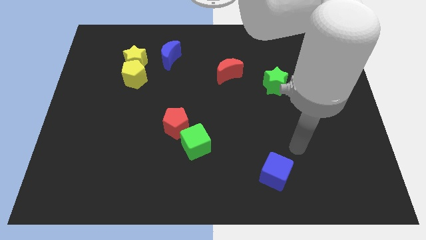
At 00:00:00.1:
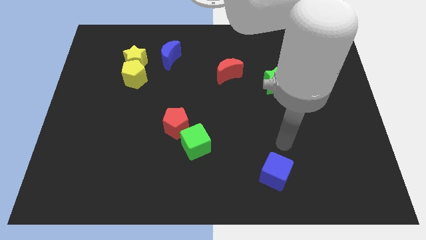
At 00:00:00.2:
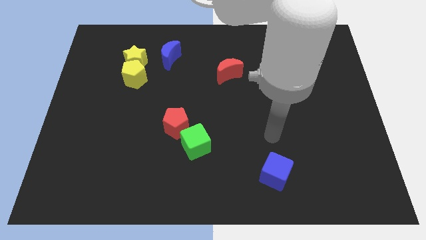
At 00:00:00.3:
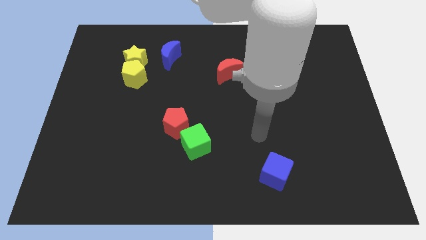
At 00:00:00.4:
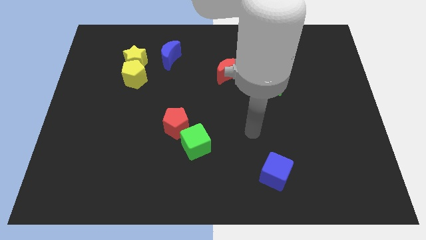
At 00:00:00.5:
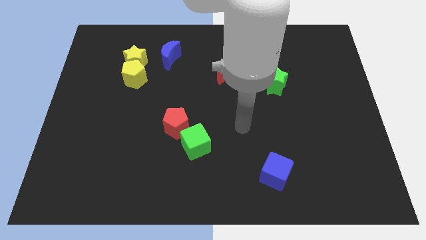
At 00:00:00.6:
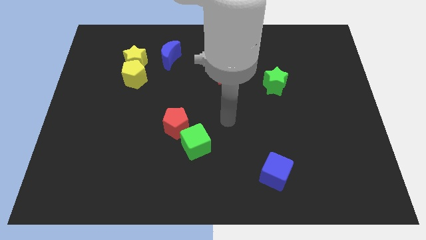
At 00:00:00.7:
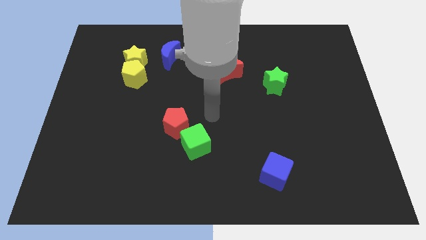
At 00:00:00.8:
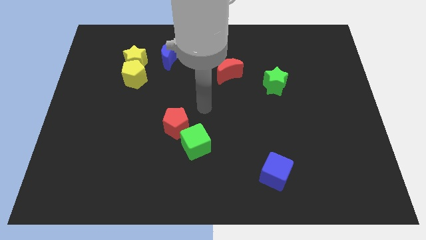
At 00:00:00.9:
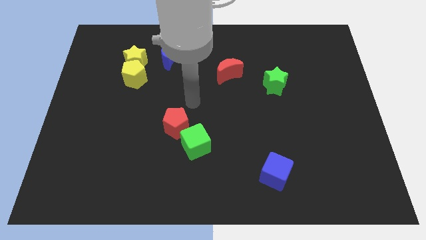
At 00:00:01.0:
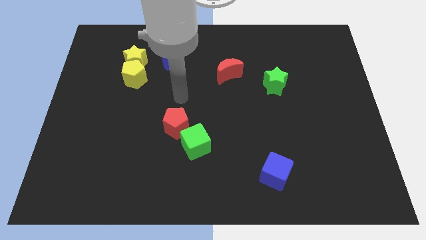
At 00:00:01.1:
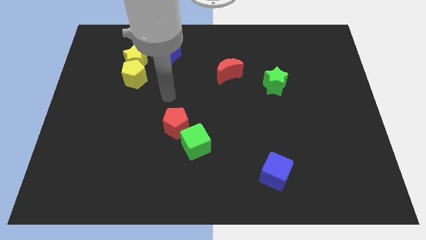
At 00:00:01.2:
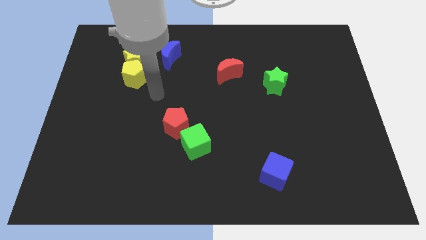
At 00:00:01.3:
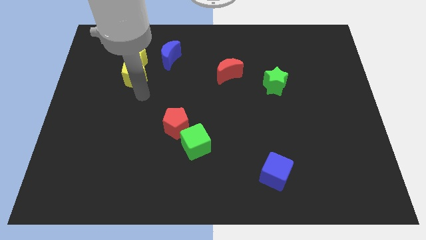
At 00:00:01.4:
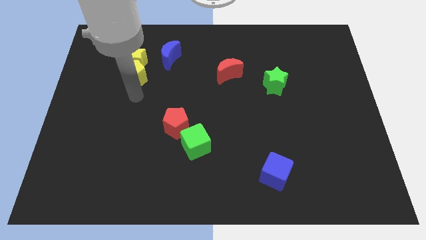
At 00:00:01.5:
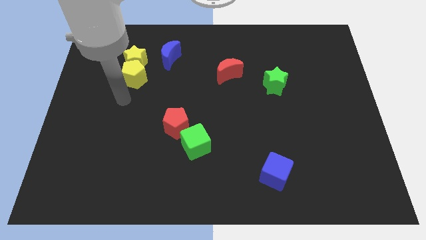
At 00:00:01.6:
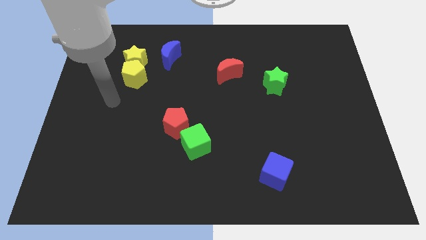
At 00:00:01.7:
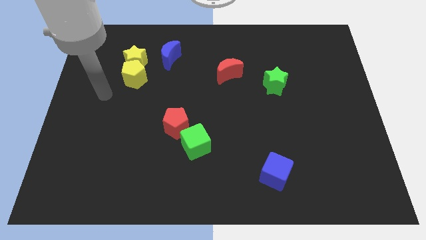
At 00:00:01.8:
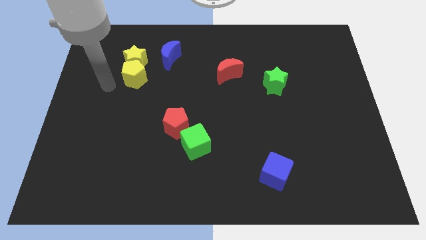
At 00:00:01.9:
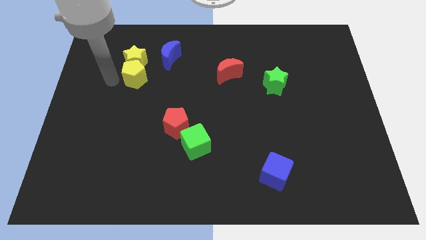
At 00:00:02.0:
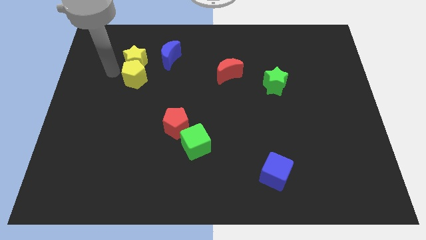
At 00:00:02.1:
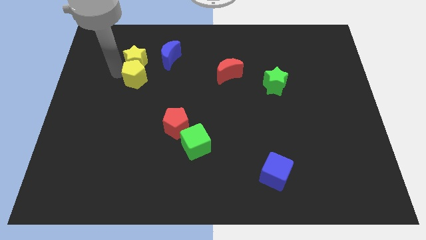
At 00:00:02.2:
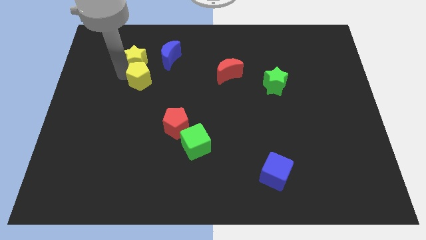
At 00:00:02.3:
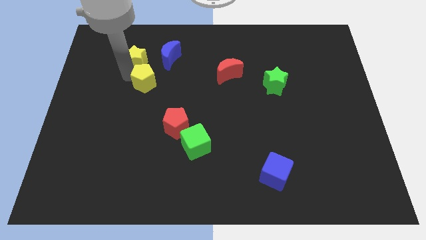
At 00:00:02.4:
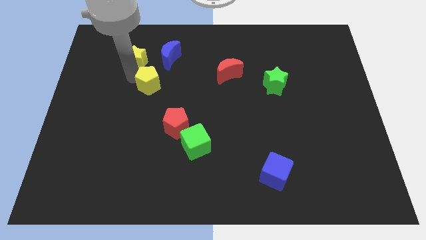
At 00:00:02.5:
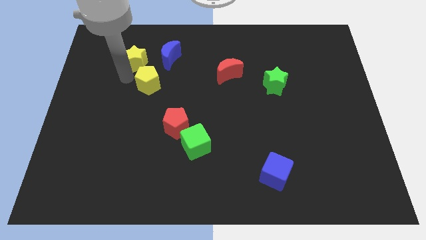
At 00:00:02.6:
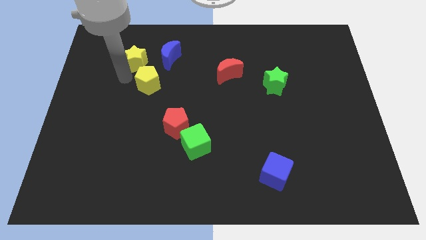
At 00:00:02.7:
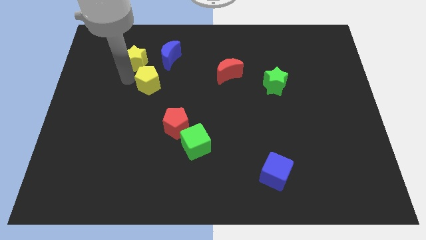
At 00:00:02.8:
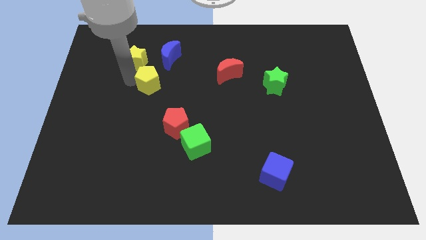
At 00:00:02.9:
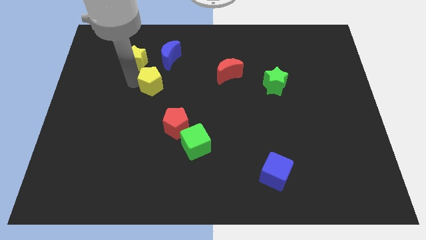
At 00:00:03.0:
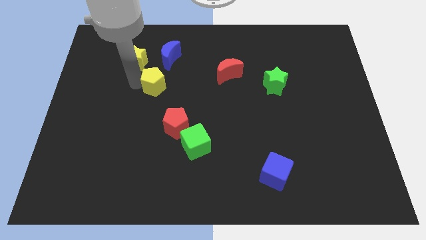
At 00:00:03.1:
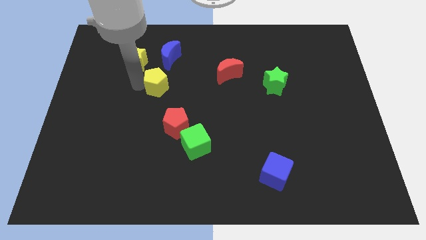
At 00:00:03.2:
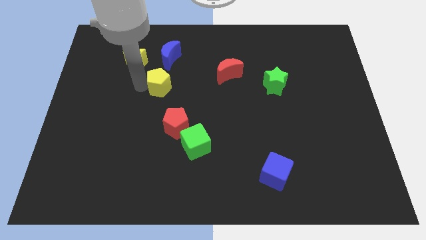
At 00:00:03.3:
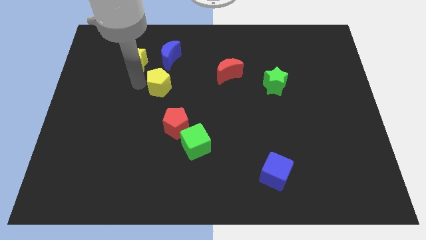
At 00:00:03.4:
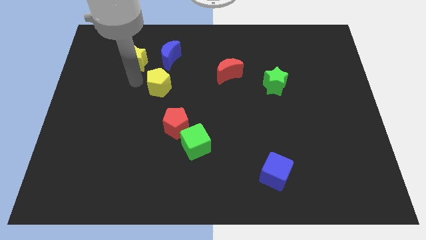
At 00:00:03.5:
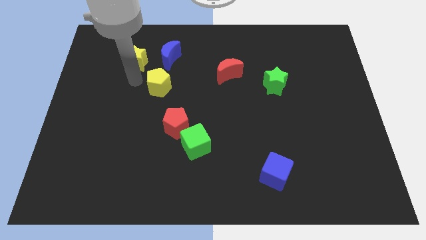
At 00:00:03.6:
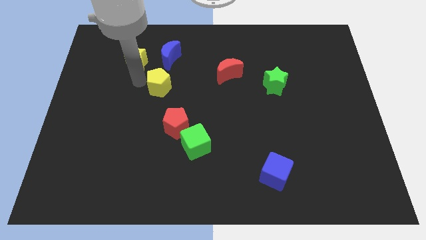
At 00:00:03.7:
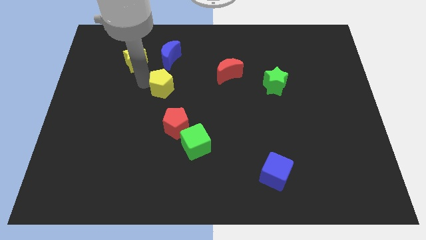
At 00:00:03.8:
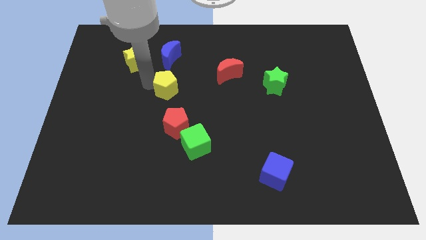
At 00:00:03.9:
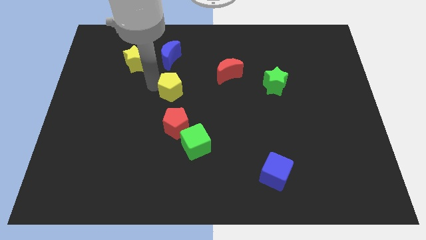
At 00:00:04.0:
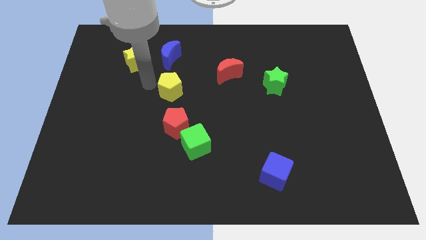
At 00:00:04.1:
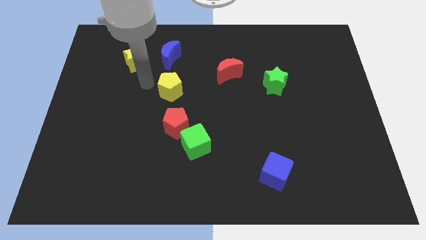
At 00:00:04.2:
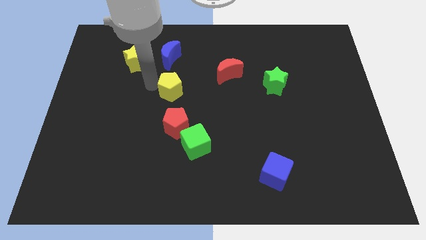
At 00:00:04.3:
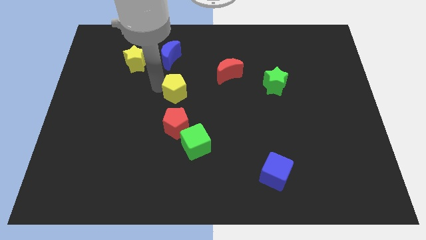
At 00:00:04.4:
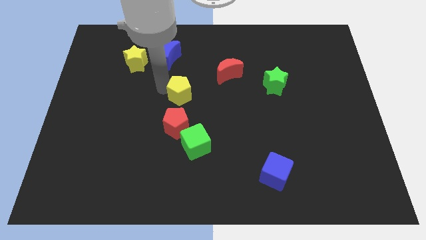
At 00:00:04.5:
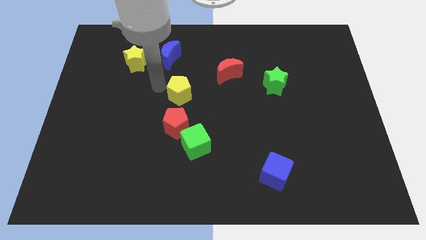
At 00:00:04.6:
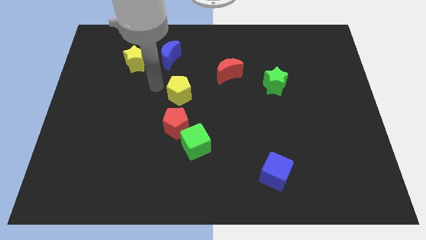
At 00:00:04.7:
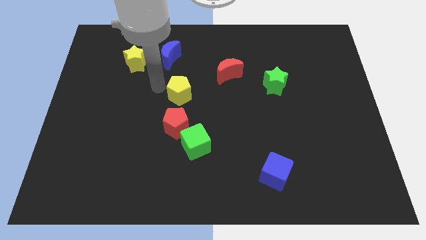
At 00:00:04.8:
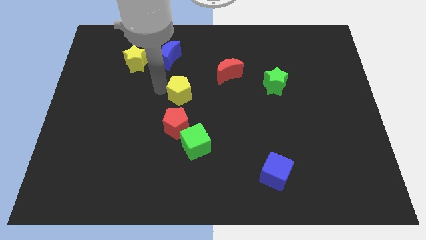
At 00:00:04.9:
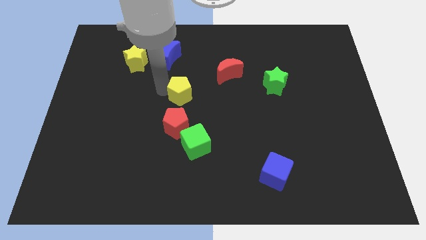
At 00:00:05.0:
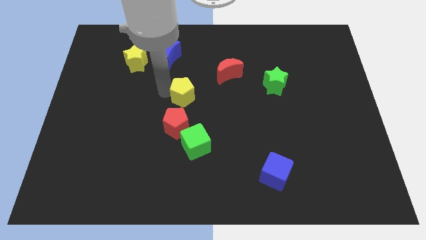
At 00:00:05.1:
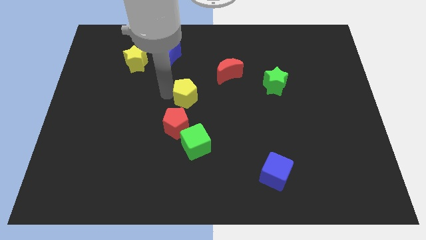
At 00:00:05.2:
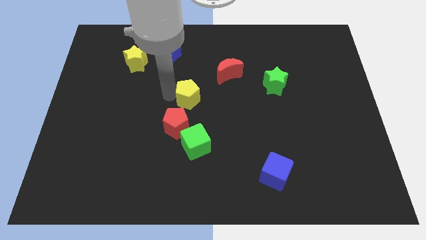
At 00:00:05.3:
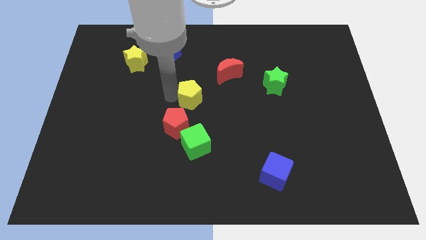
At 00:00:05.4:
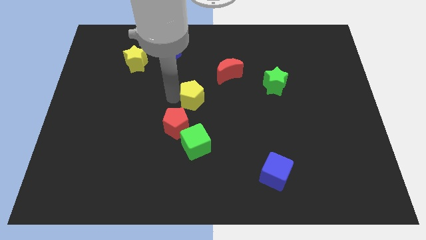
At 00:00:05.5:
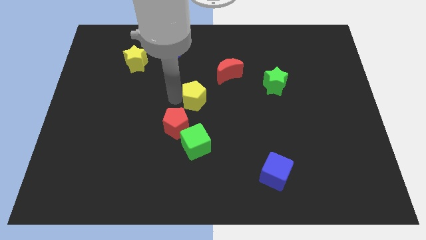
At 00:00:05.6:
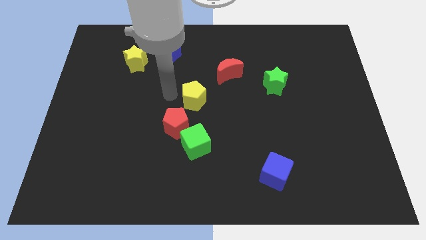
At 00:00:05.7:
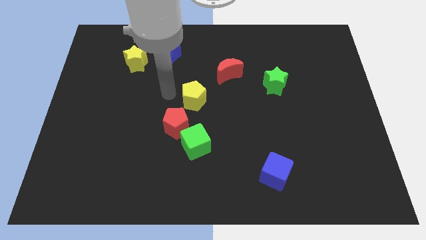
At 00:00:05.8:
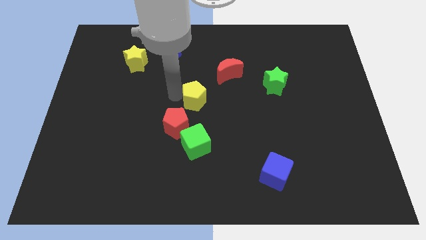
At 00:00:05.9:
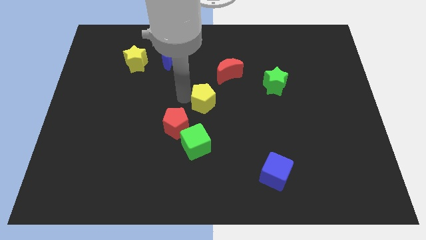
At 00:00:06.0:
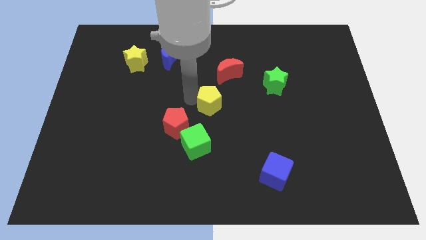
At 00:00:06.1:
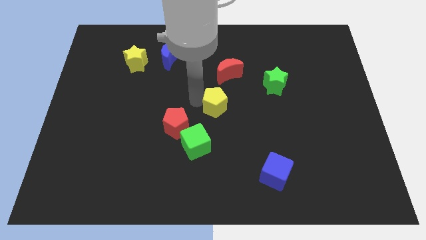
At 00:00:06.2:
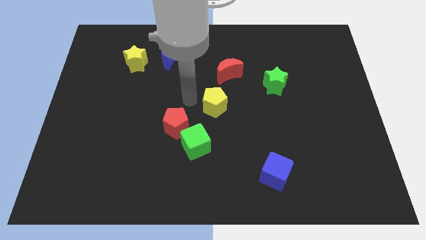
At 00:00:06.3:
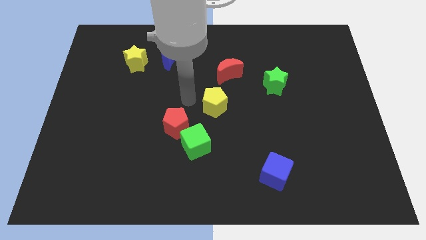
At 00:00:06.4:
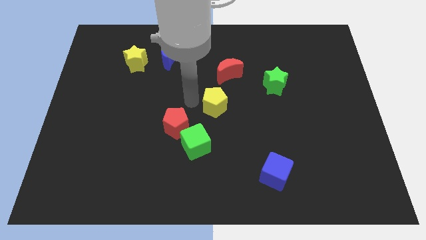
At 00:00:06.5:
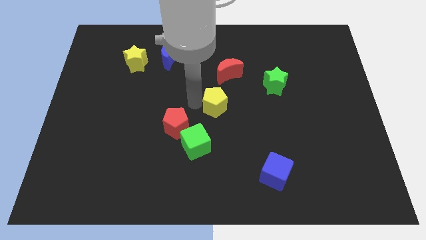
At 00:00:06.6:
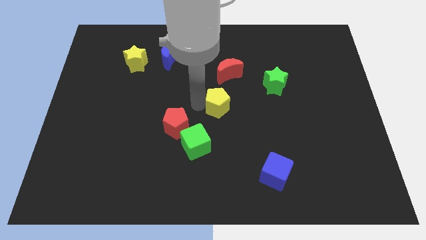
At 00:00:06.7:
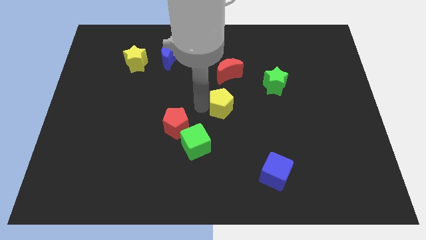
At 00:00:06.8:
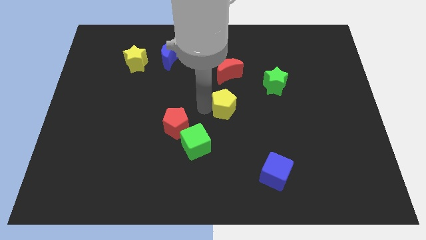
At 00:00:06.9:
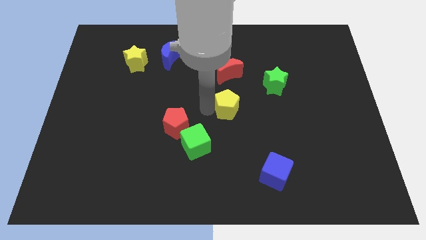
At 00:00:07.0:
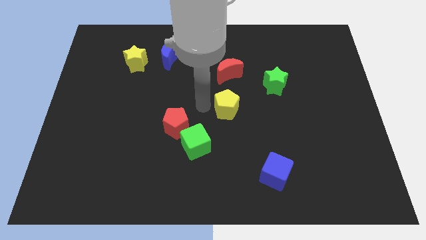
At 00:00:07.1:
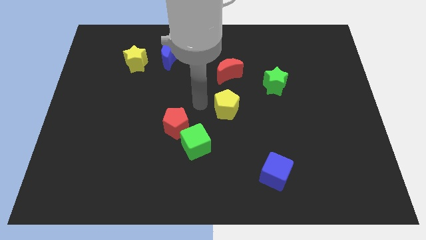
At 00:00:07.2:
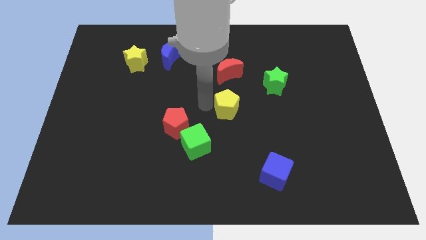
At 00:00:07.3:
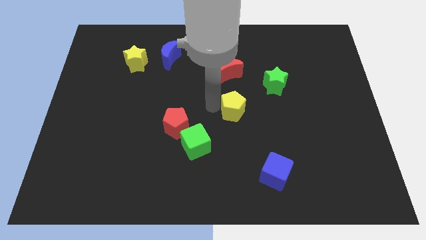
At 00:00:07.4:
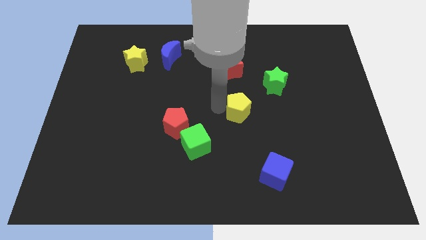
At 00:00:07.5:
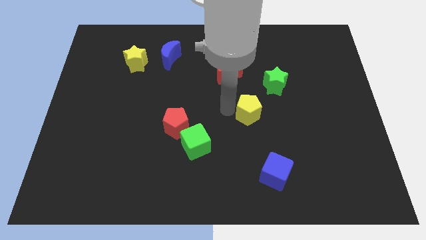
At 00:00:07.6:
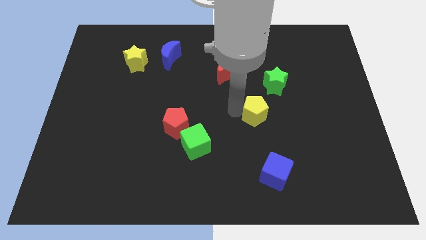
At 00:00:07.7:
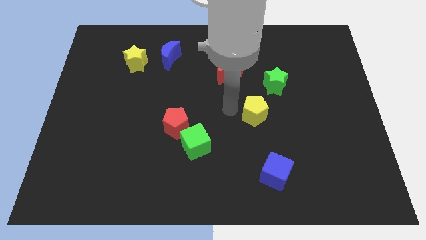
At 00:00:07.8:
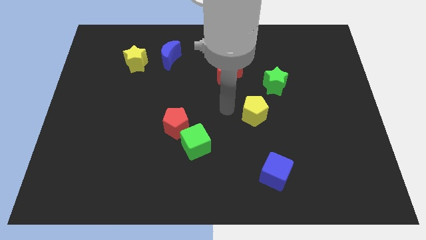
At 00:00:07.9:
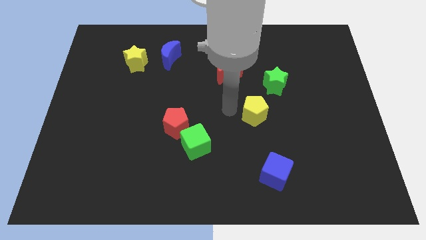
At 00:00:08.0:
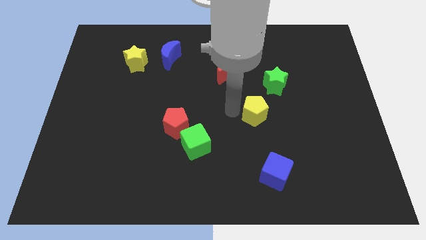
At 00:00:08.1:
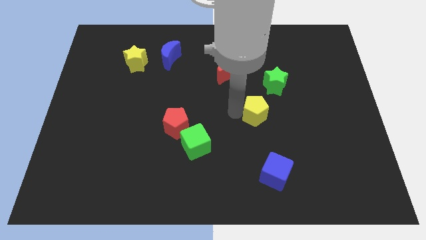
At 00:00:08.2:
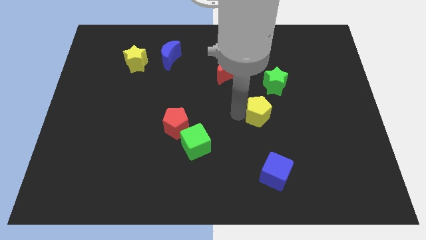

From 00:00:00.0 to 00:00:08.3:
push the yellow pentagon to the bottom side of the green star
